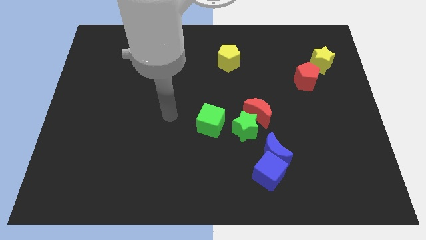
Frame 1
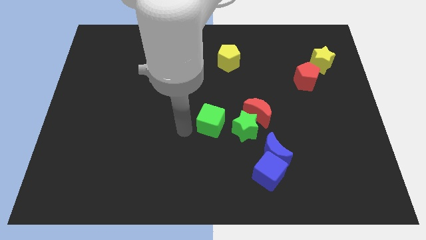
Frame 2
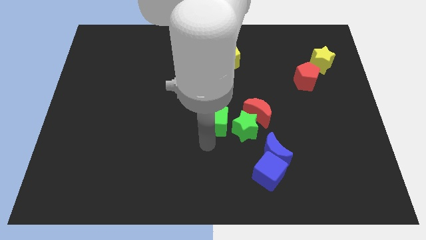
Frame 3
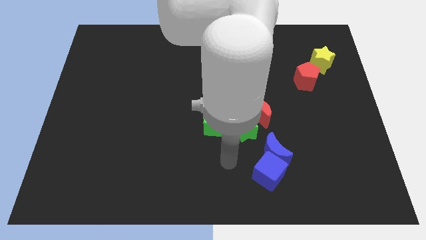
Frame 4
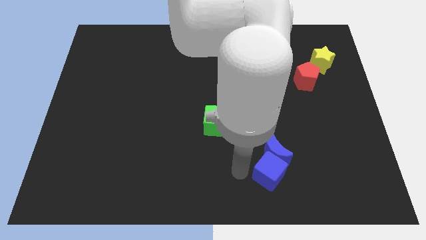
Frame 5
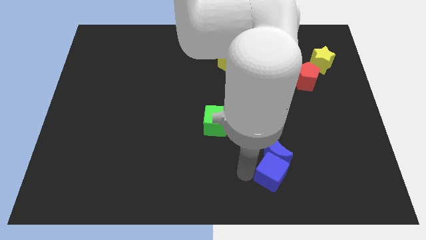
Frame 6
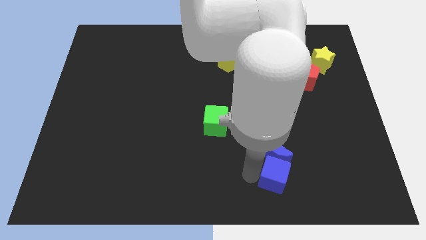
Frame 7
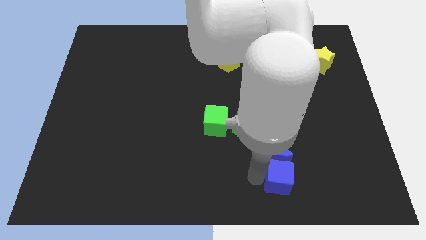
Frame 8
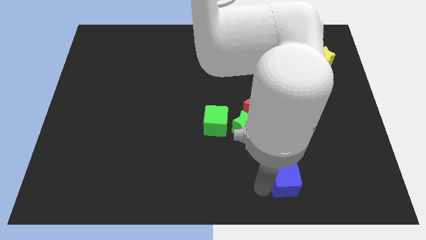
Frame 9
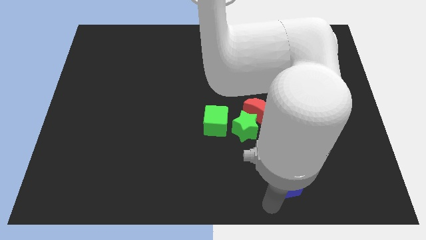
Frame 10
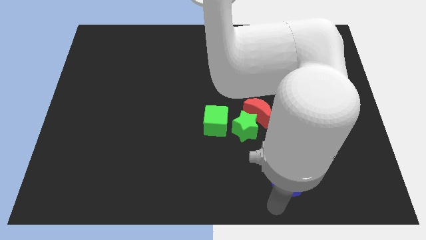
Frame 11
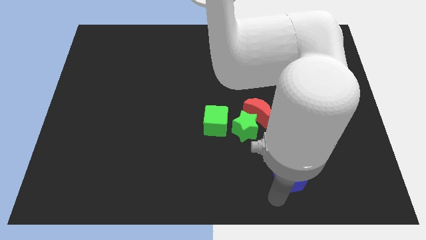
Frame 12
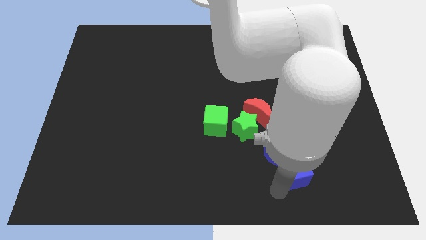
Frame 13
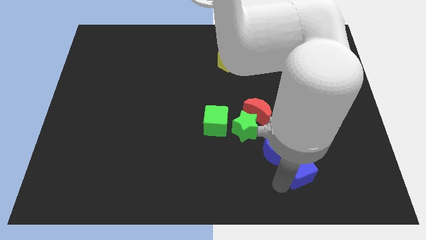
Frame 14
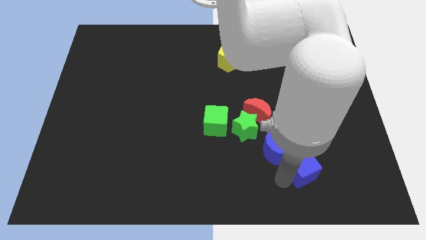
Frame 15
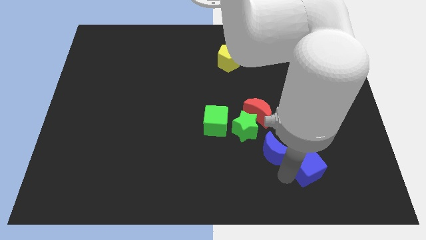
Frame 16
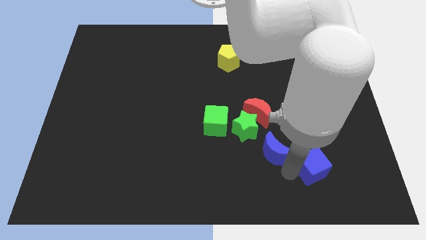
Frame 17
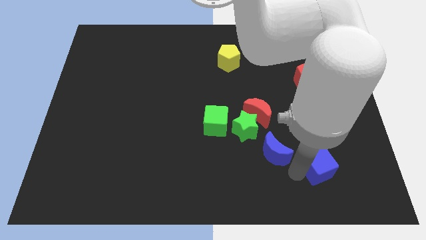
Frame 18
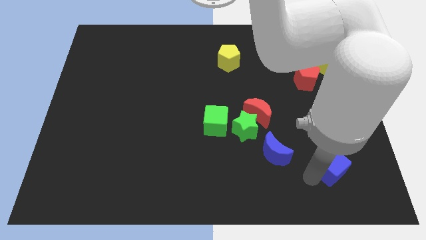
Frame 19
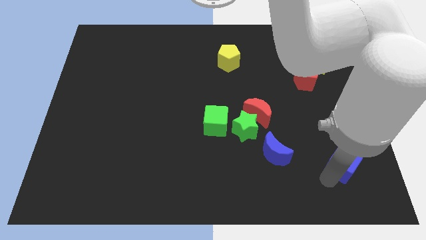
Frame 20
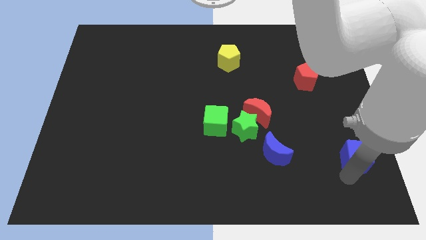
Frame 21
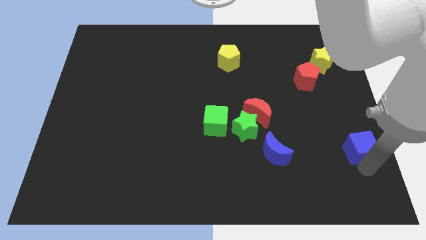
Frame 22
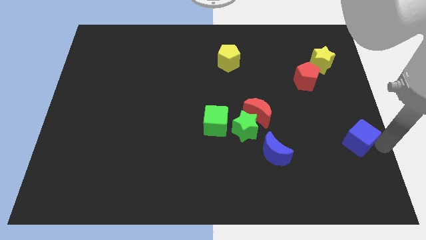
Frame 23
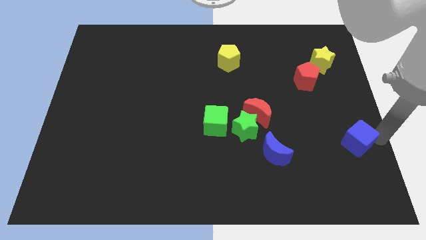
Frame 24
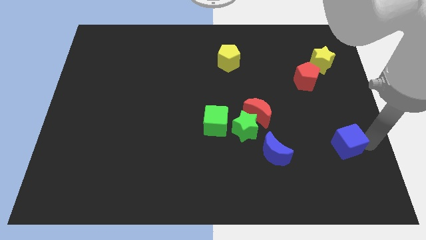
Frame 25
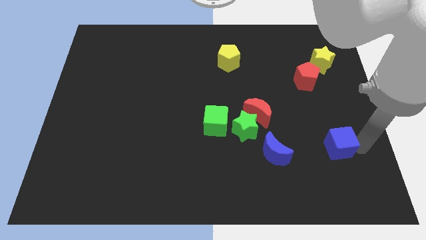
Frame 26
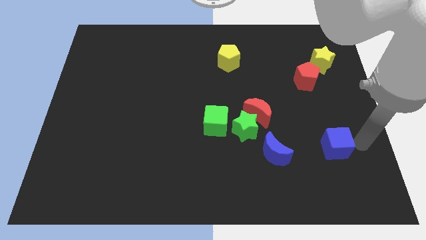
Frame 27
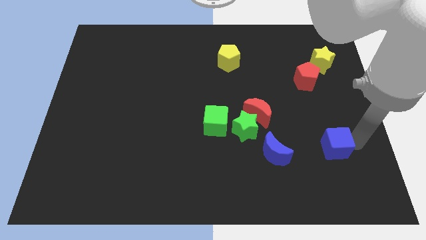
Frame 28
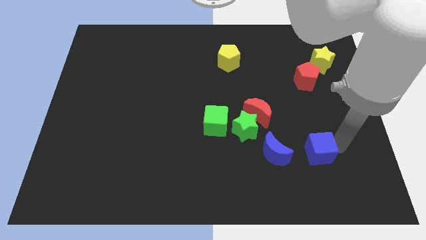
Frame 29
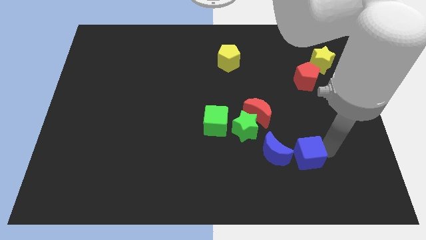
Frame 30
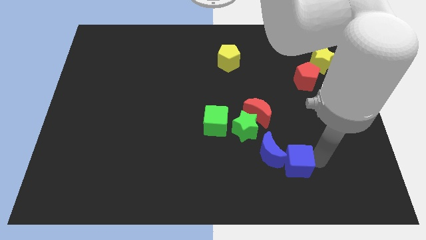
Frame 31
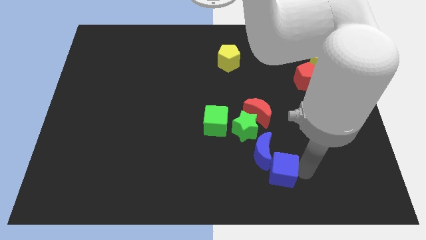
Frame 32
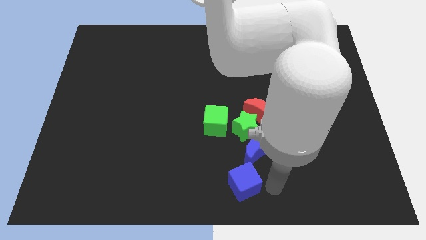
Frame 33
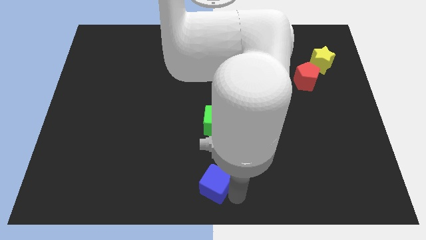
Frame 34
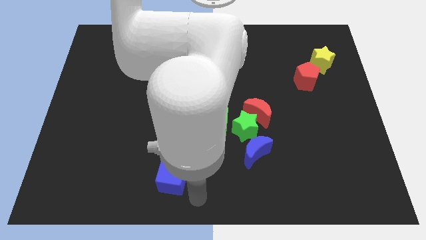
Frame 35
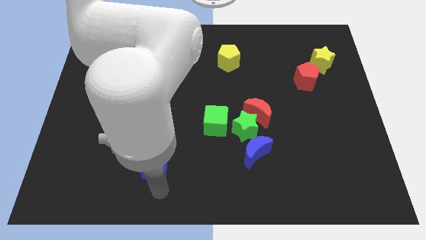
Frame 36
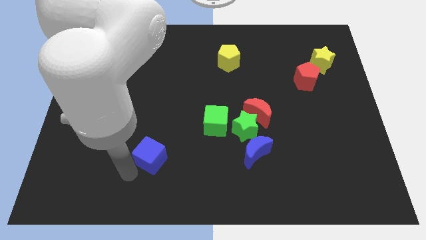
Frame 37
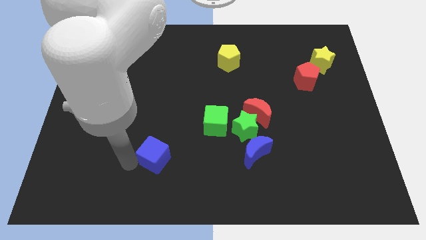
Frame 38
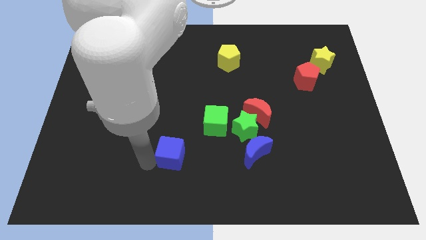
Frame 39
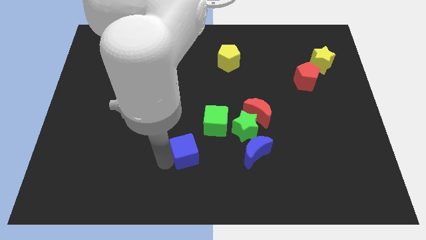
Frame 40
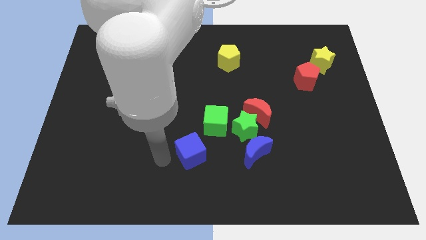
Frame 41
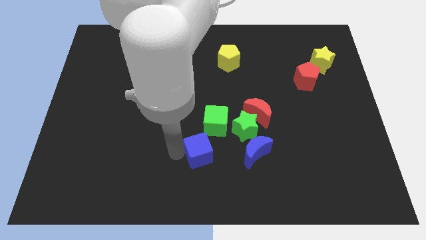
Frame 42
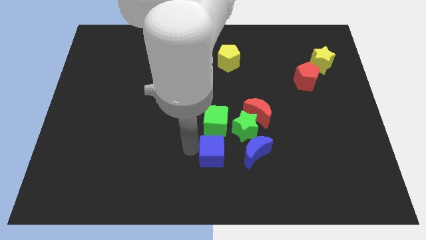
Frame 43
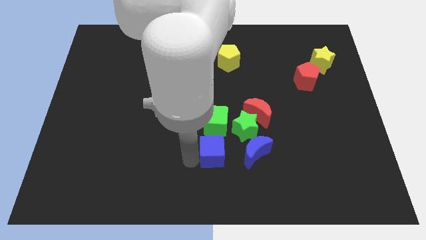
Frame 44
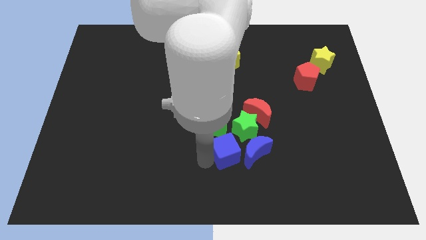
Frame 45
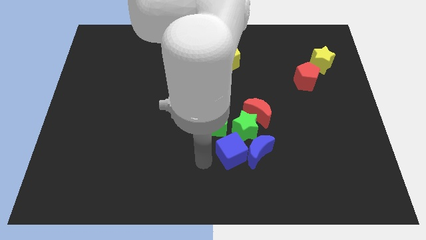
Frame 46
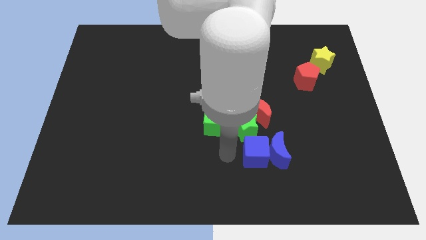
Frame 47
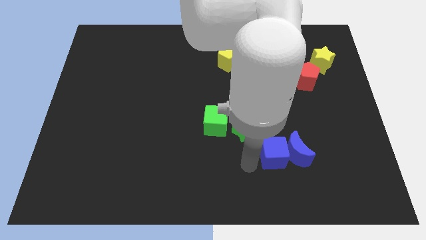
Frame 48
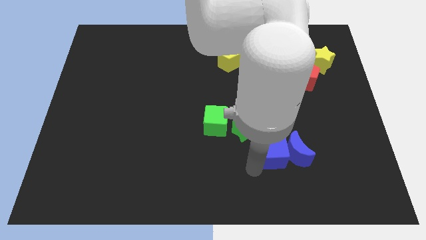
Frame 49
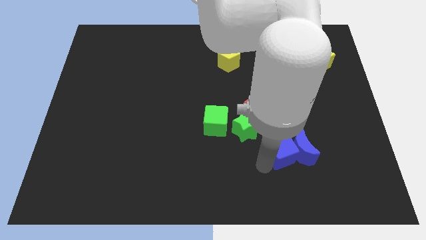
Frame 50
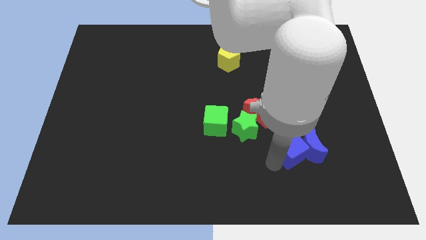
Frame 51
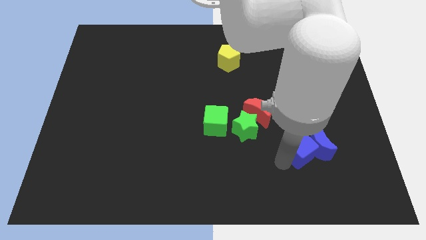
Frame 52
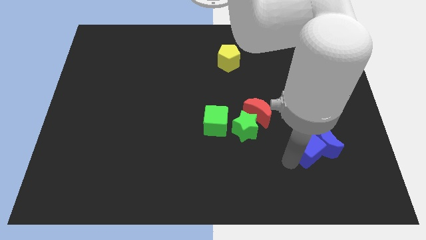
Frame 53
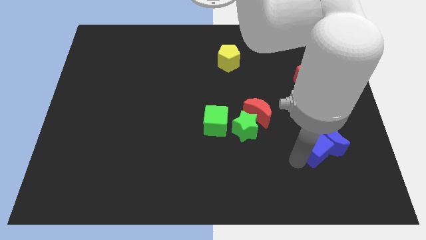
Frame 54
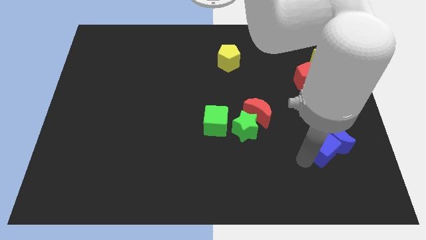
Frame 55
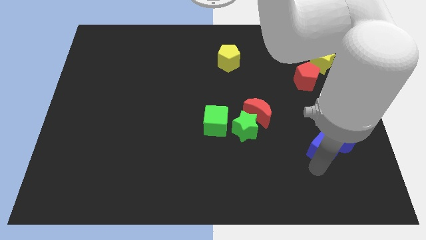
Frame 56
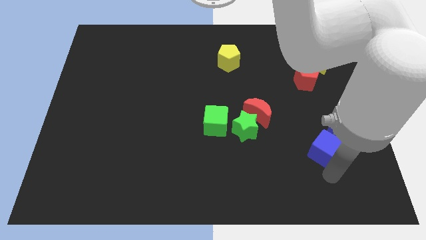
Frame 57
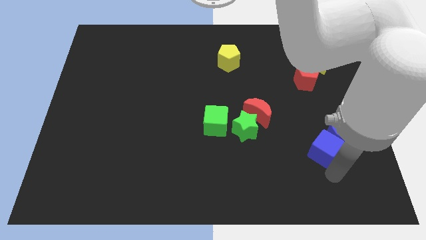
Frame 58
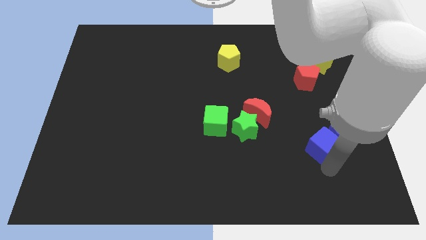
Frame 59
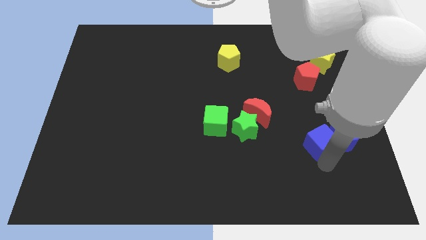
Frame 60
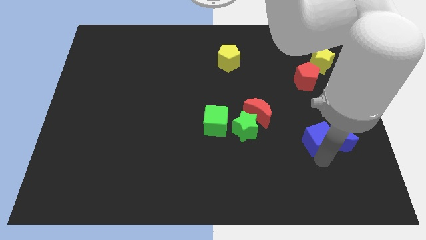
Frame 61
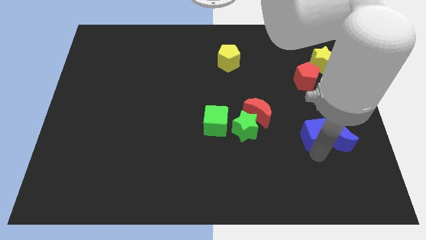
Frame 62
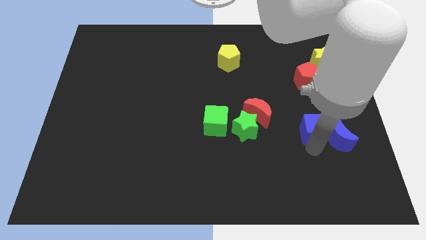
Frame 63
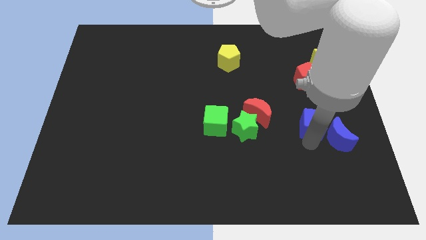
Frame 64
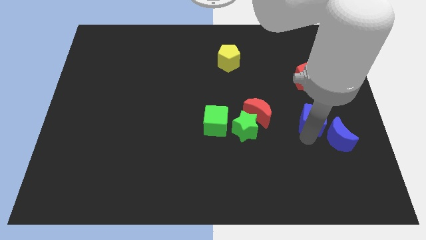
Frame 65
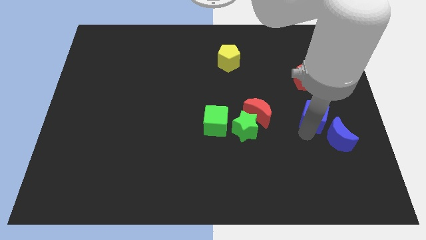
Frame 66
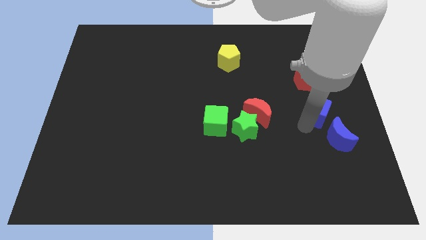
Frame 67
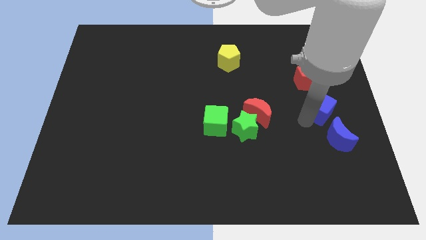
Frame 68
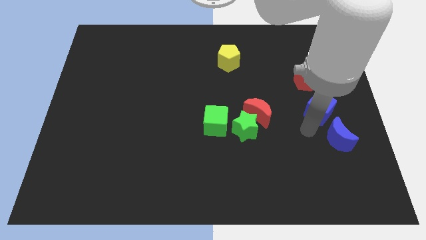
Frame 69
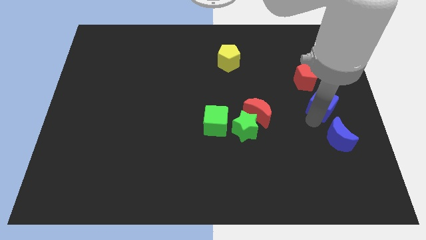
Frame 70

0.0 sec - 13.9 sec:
push the blue cube below the yellow star
